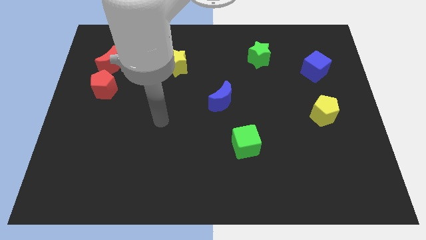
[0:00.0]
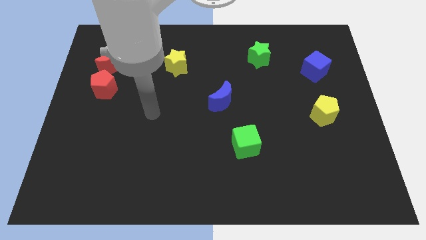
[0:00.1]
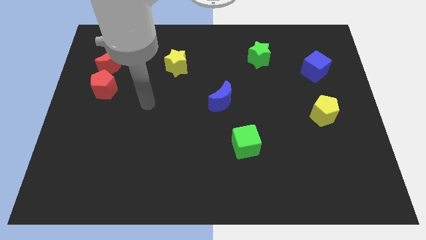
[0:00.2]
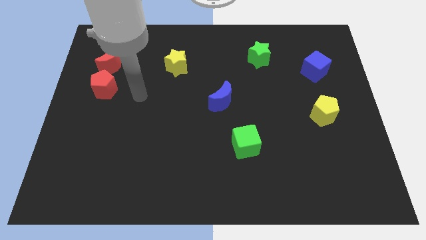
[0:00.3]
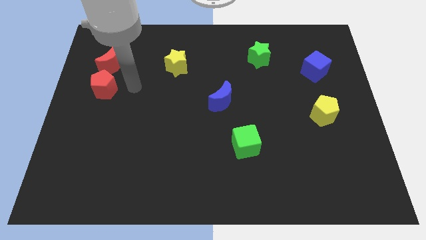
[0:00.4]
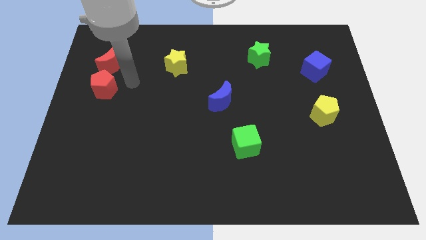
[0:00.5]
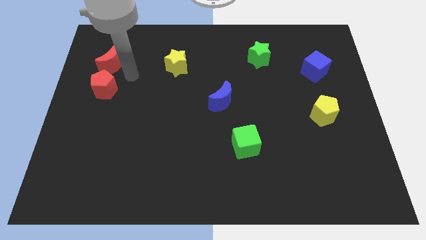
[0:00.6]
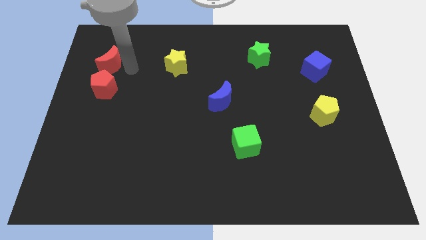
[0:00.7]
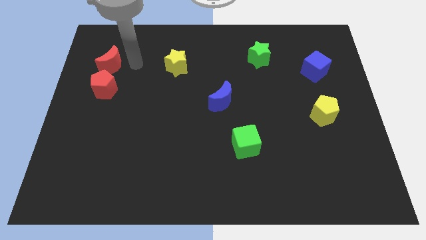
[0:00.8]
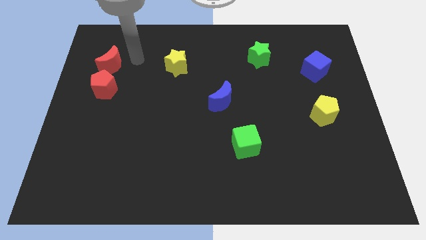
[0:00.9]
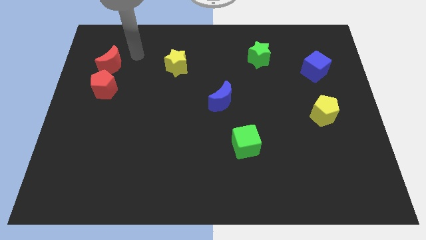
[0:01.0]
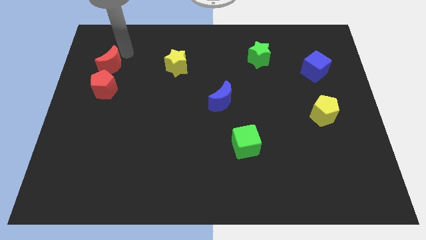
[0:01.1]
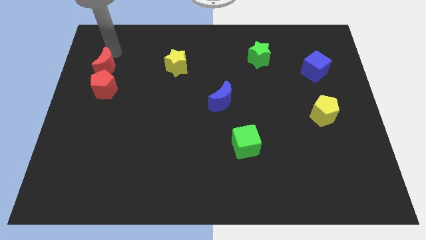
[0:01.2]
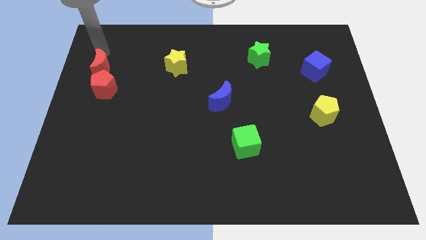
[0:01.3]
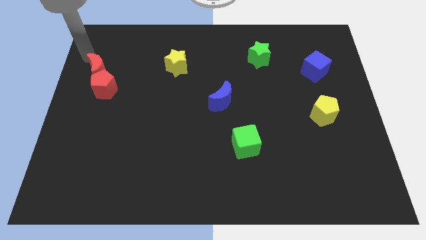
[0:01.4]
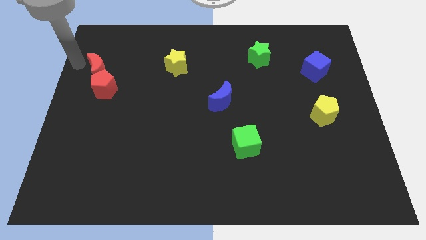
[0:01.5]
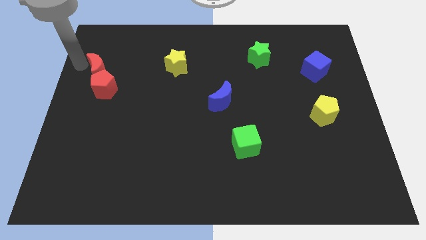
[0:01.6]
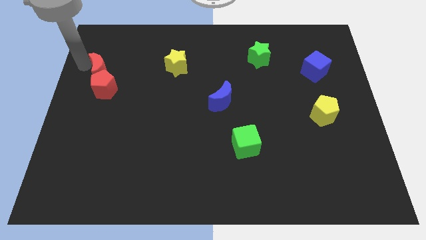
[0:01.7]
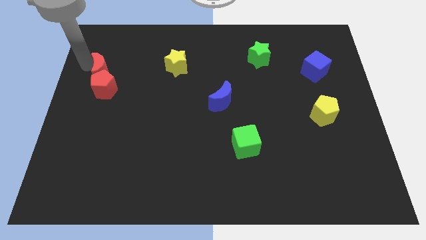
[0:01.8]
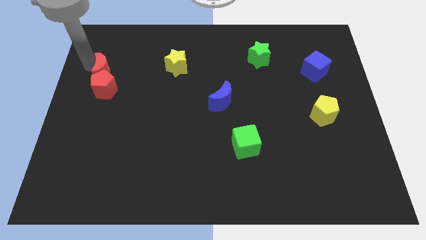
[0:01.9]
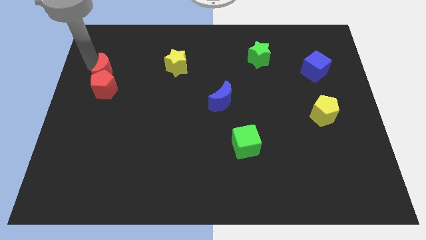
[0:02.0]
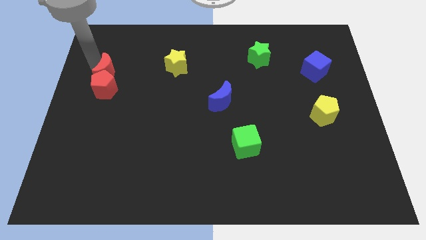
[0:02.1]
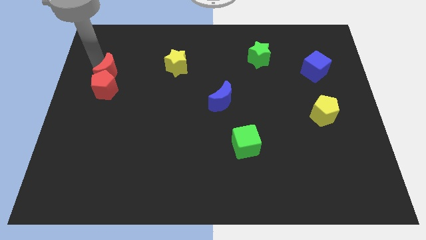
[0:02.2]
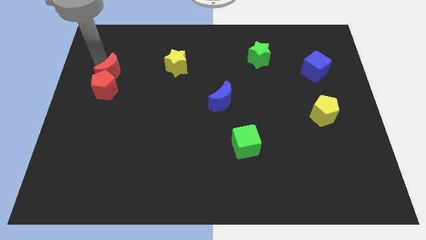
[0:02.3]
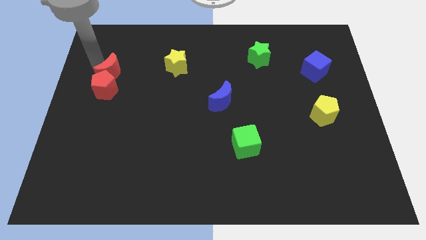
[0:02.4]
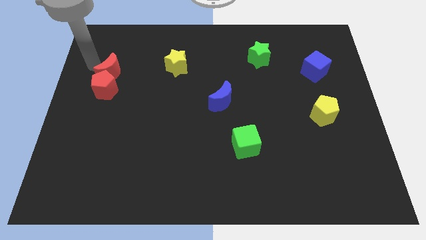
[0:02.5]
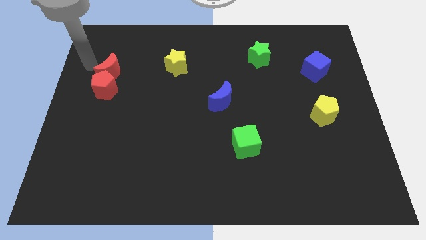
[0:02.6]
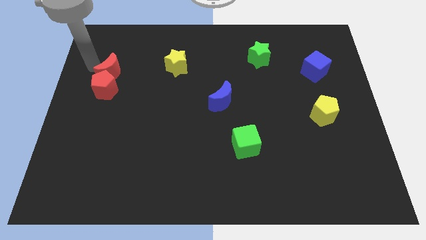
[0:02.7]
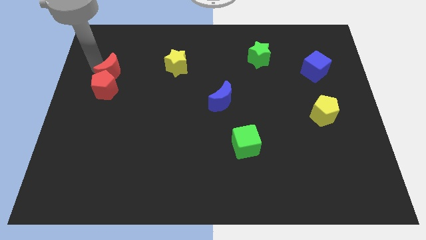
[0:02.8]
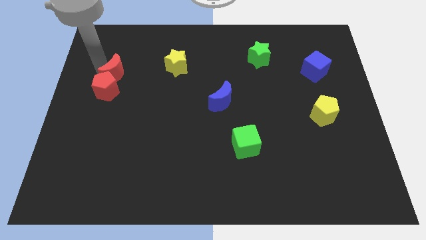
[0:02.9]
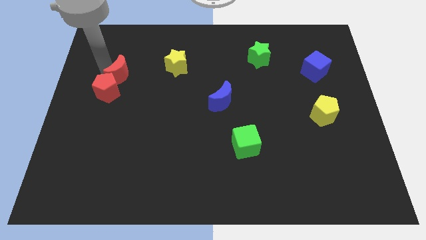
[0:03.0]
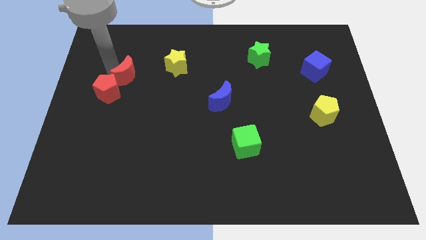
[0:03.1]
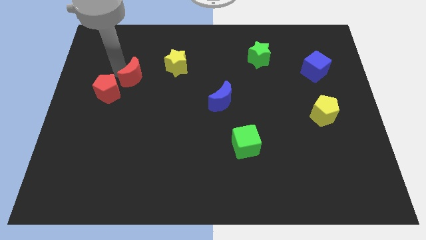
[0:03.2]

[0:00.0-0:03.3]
slightly push the red moon down and right diagonally

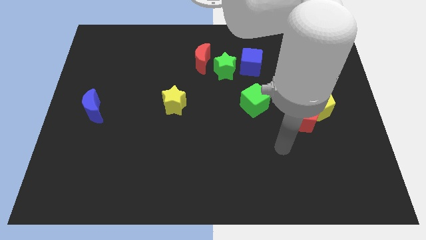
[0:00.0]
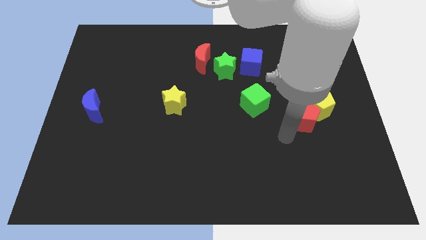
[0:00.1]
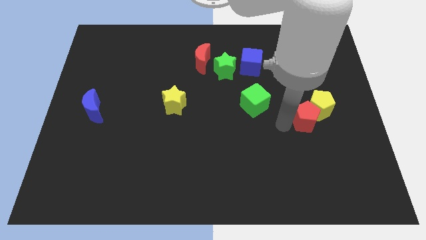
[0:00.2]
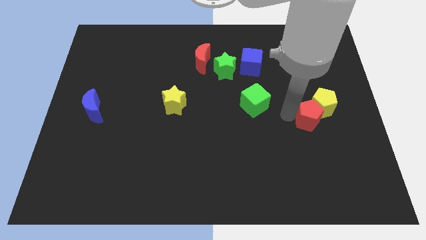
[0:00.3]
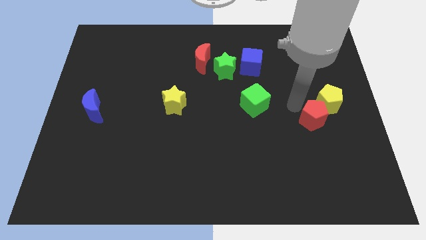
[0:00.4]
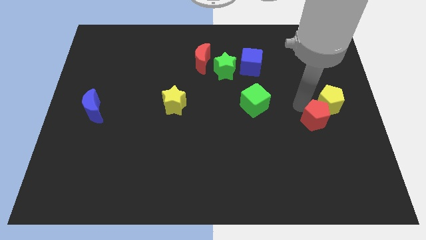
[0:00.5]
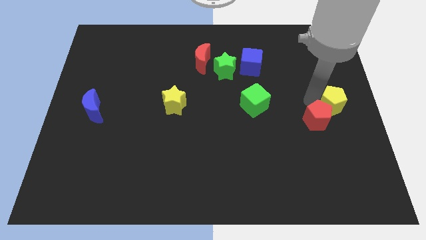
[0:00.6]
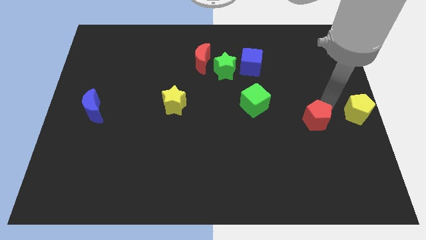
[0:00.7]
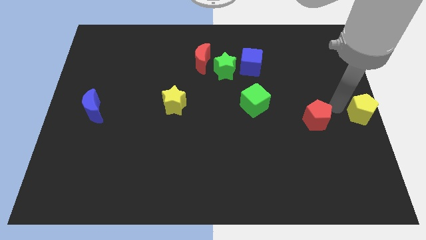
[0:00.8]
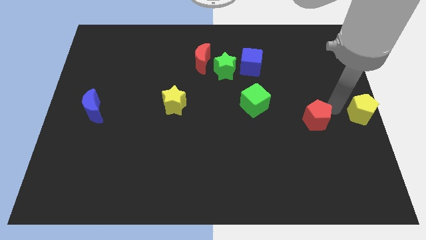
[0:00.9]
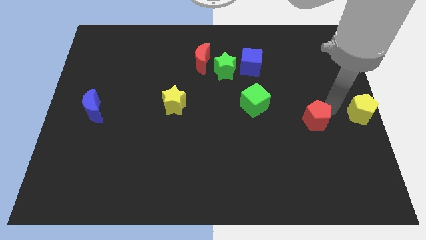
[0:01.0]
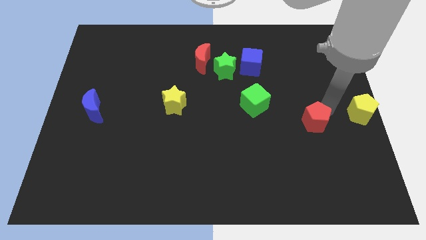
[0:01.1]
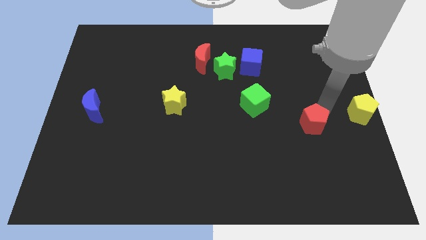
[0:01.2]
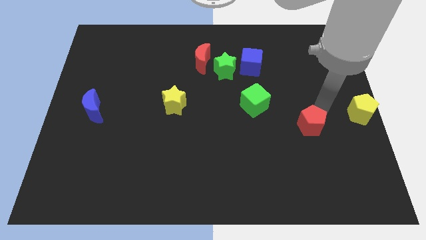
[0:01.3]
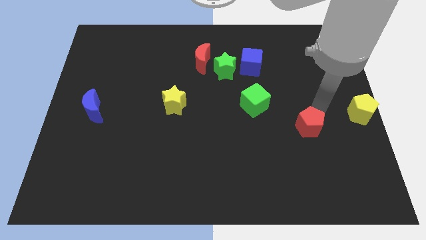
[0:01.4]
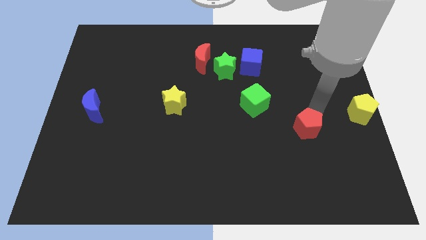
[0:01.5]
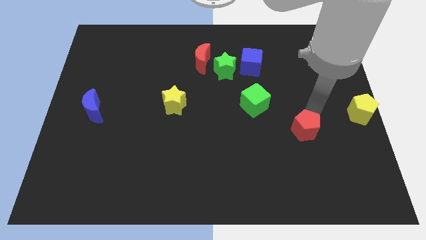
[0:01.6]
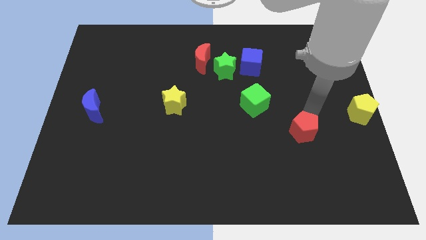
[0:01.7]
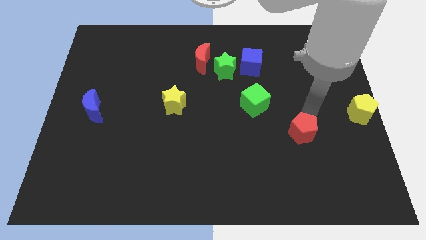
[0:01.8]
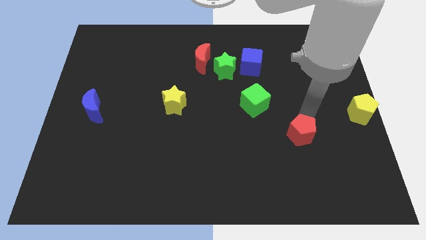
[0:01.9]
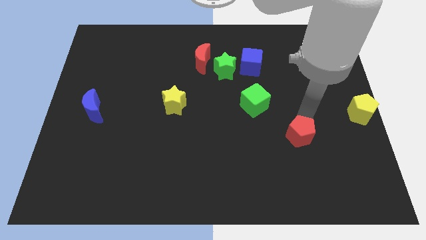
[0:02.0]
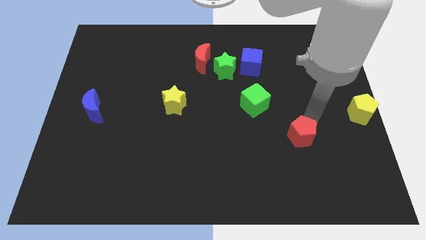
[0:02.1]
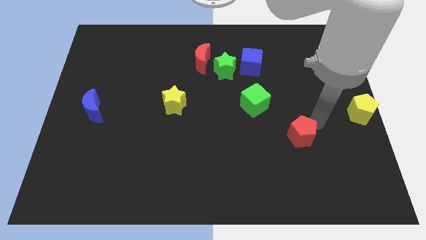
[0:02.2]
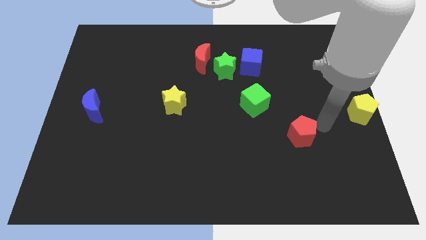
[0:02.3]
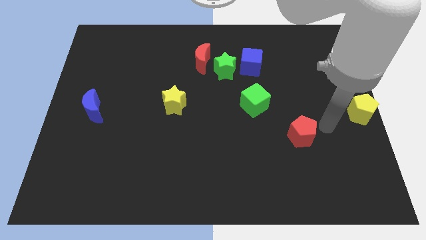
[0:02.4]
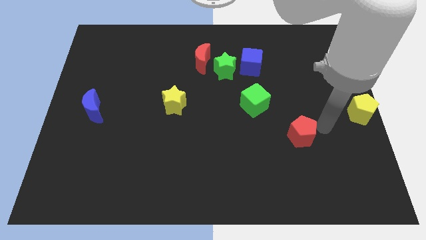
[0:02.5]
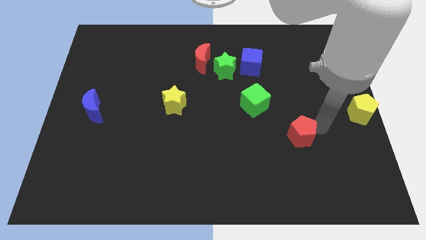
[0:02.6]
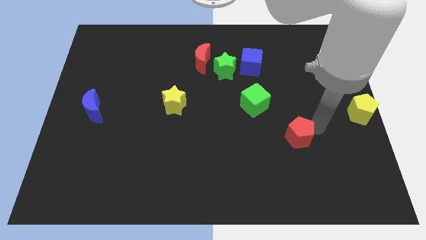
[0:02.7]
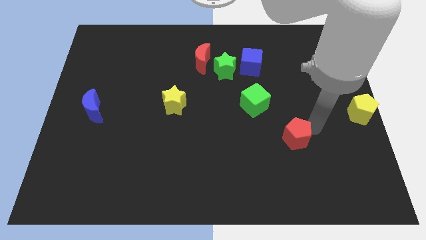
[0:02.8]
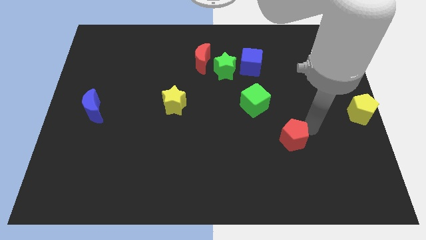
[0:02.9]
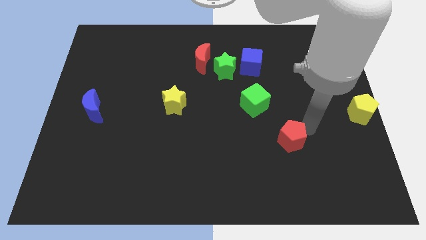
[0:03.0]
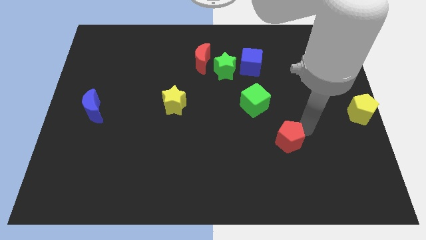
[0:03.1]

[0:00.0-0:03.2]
move the red pentagon downwards and then to the left slightly

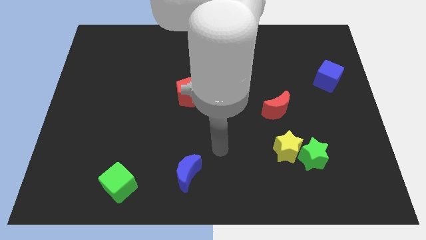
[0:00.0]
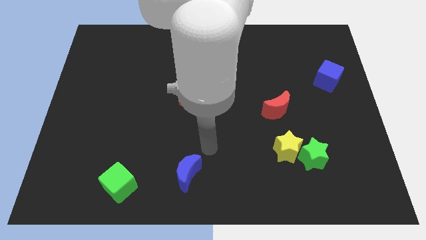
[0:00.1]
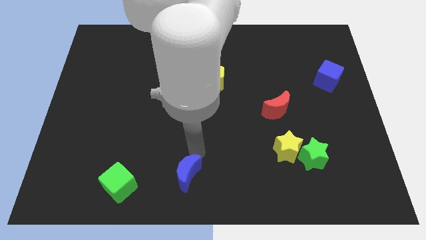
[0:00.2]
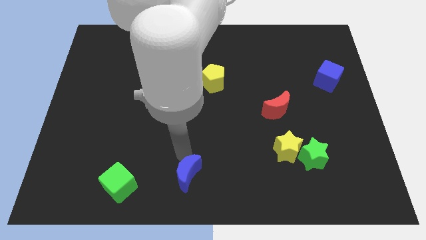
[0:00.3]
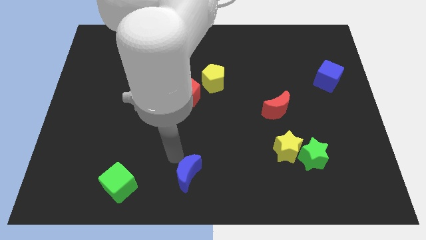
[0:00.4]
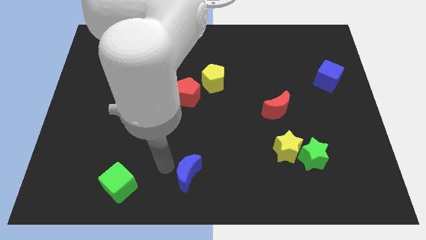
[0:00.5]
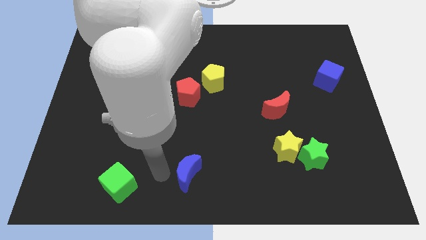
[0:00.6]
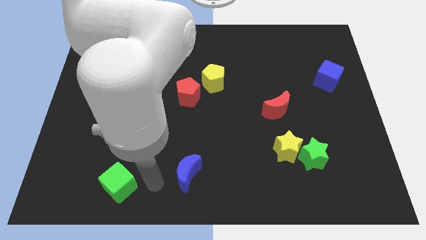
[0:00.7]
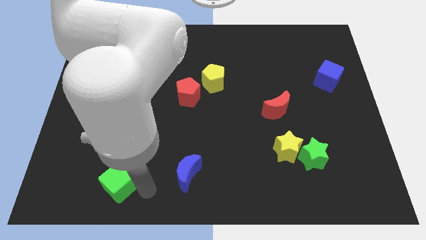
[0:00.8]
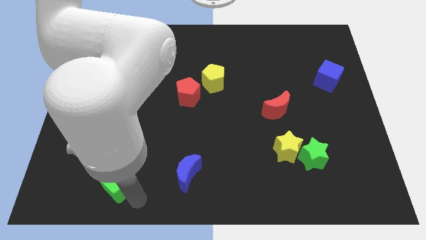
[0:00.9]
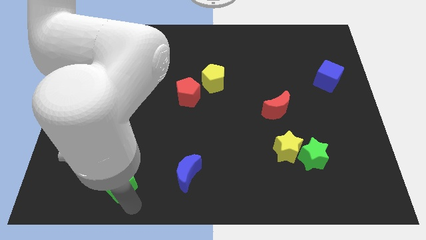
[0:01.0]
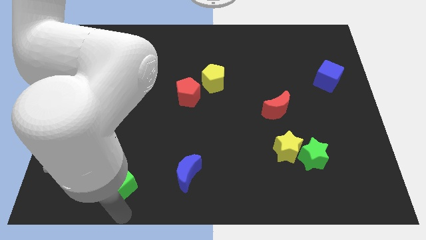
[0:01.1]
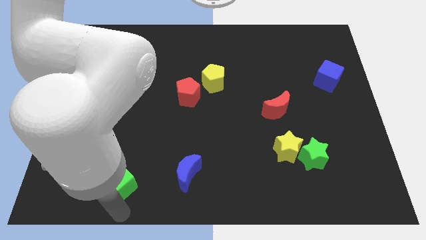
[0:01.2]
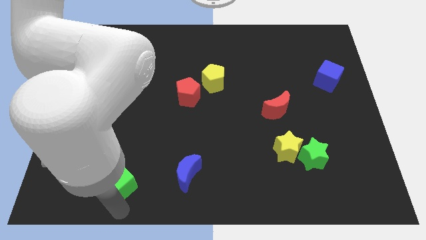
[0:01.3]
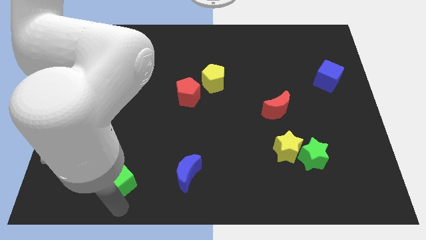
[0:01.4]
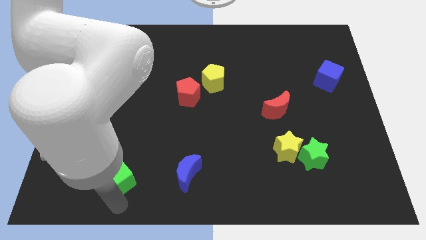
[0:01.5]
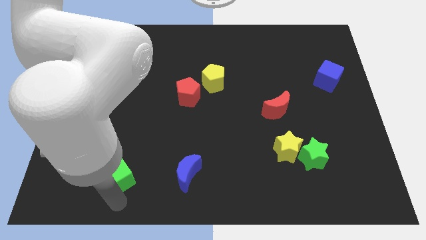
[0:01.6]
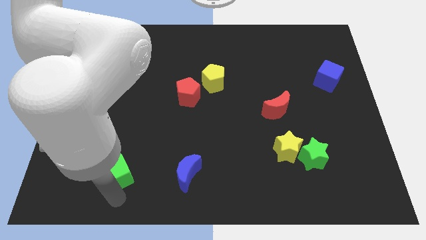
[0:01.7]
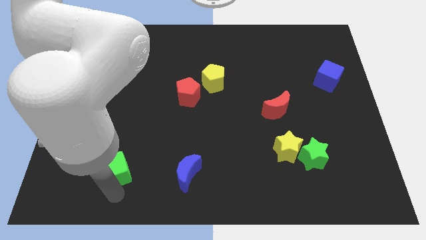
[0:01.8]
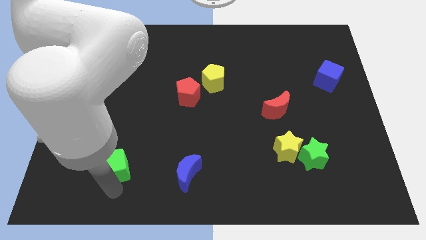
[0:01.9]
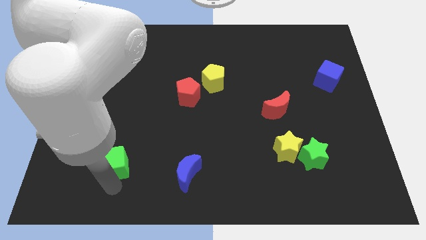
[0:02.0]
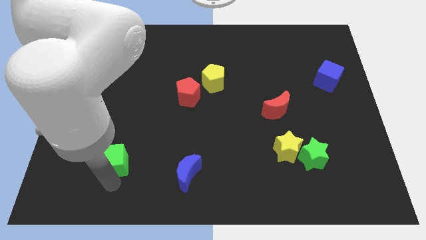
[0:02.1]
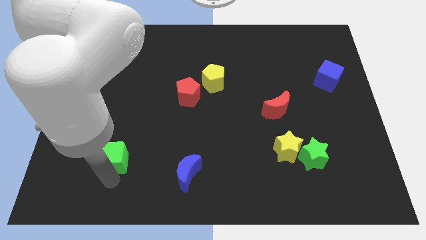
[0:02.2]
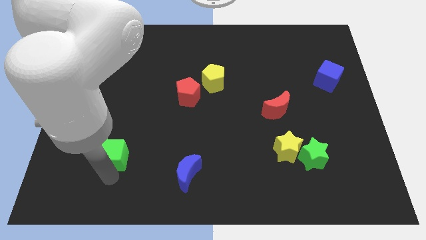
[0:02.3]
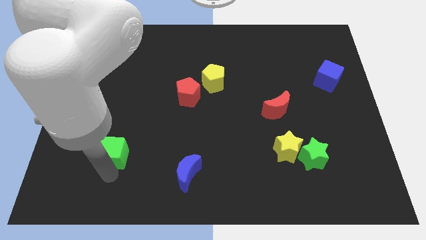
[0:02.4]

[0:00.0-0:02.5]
slide the green cube up a little bit
